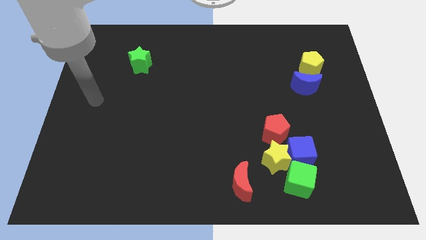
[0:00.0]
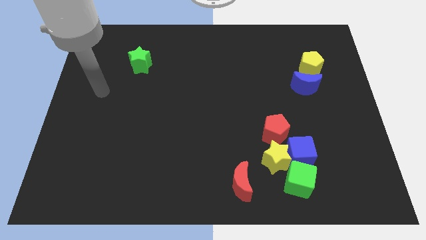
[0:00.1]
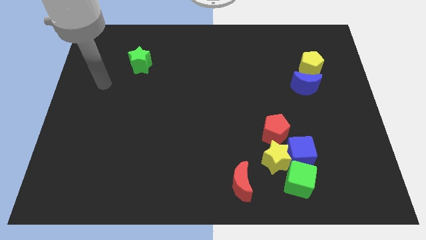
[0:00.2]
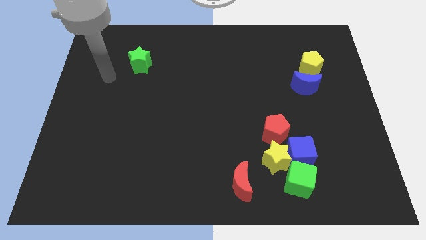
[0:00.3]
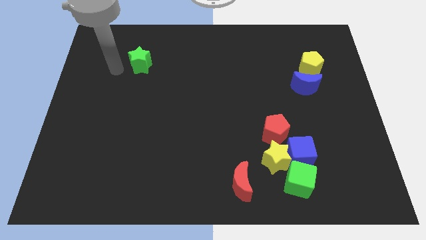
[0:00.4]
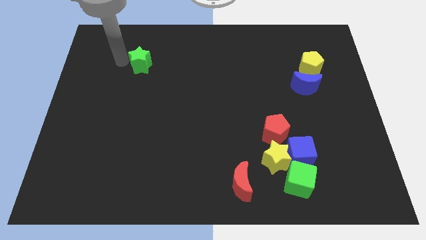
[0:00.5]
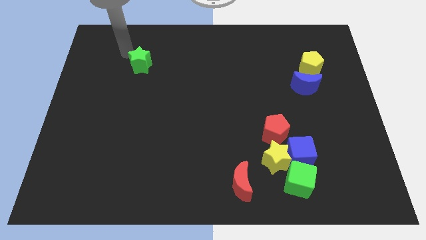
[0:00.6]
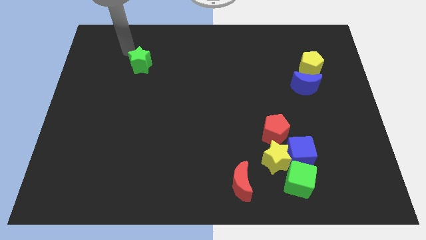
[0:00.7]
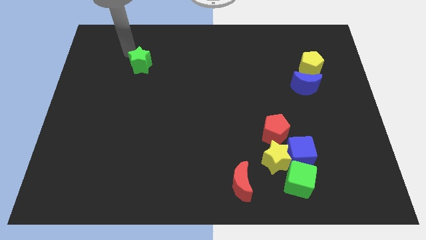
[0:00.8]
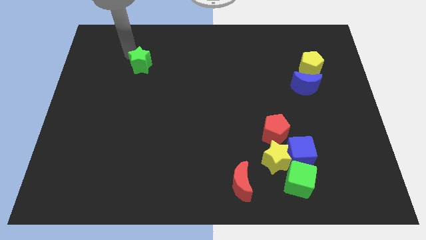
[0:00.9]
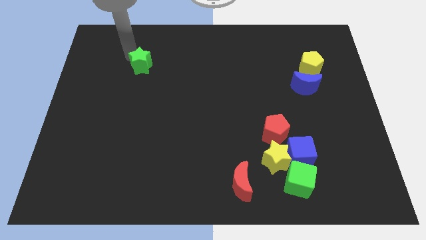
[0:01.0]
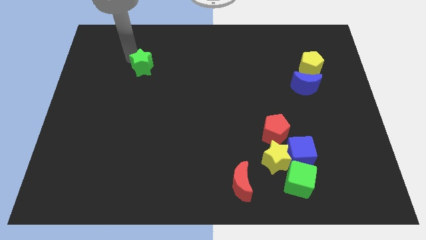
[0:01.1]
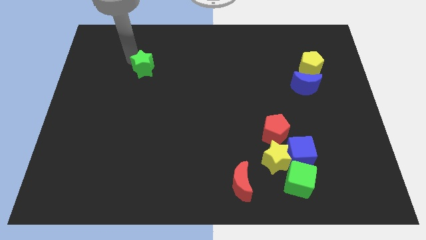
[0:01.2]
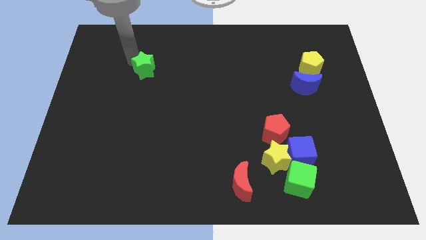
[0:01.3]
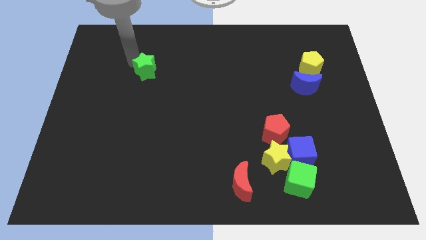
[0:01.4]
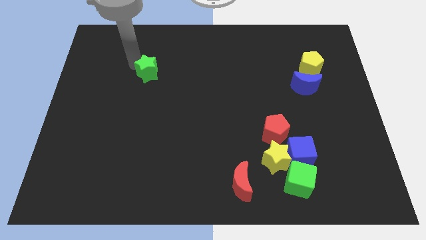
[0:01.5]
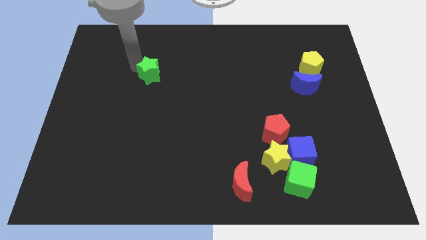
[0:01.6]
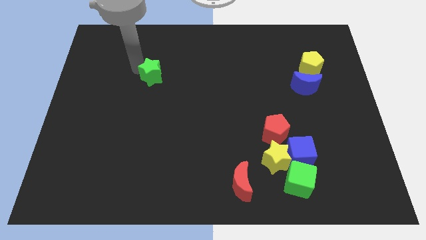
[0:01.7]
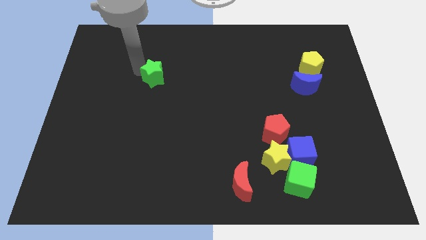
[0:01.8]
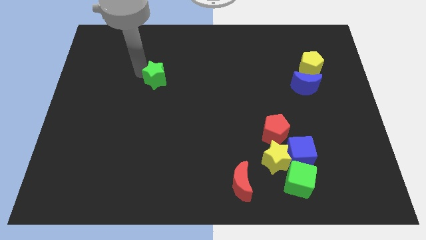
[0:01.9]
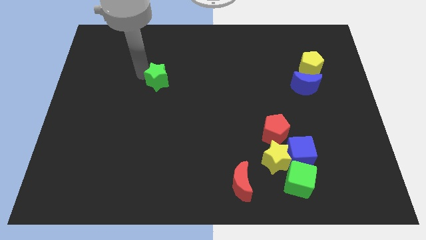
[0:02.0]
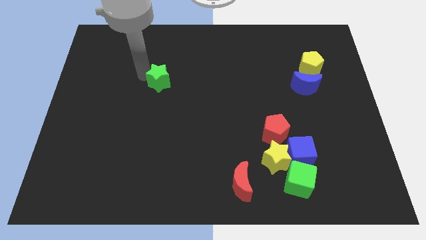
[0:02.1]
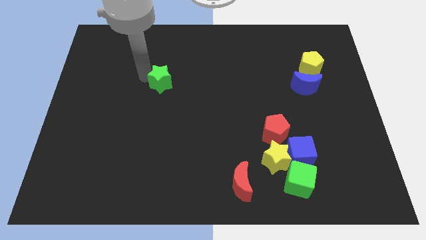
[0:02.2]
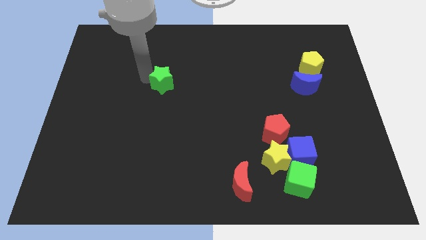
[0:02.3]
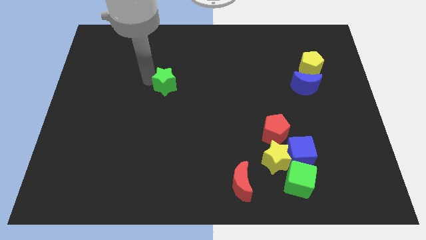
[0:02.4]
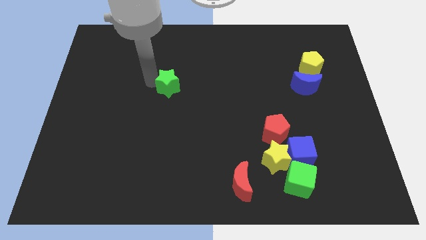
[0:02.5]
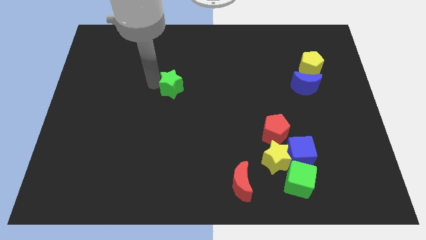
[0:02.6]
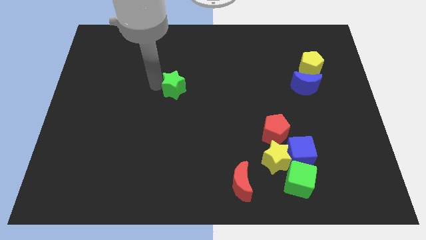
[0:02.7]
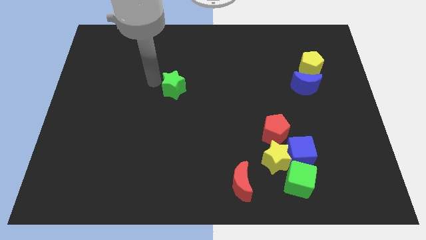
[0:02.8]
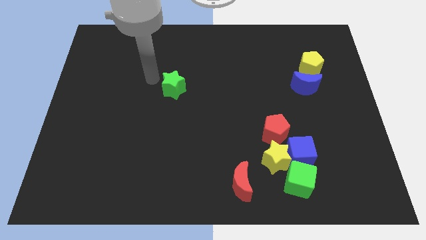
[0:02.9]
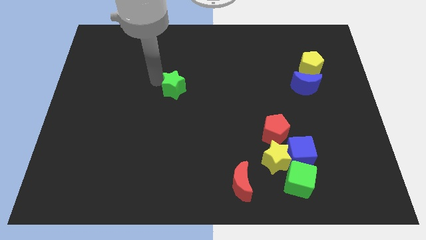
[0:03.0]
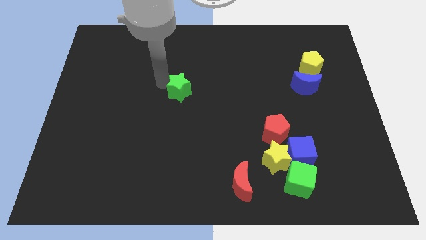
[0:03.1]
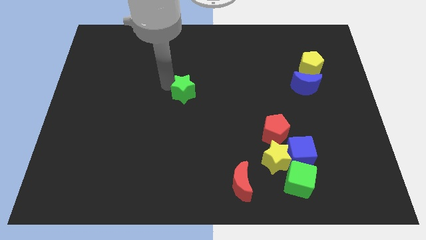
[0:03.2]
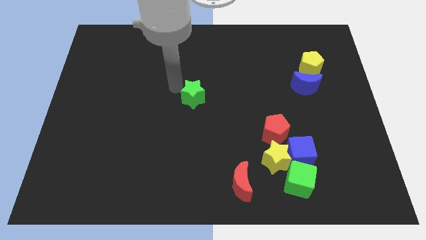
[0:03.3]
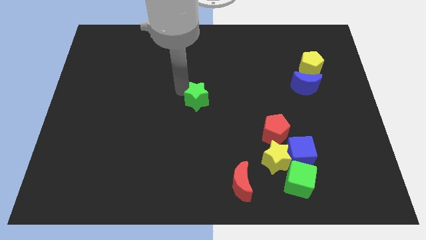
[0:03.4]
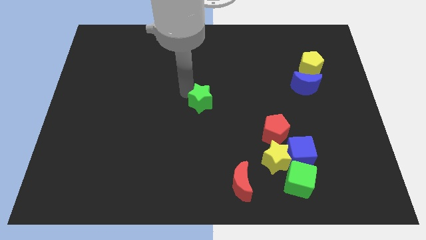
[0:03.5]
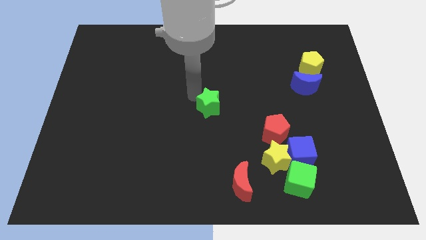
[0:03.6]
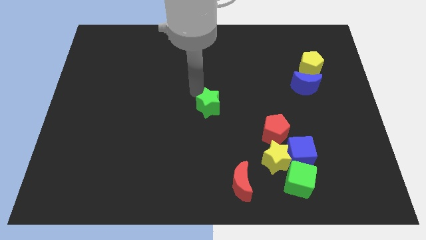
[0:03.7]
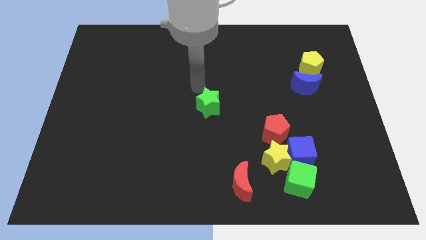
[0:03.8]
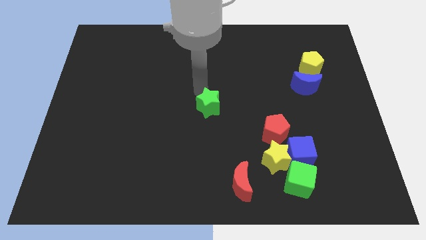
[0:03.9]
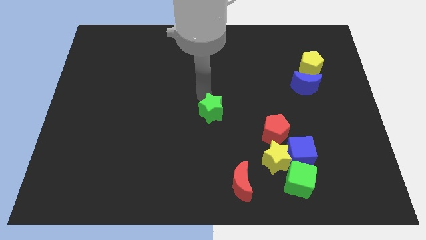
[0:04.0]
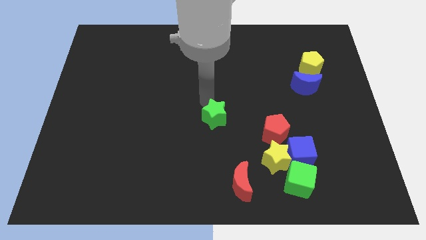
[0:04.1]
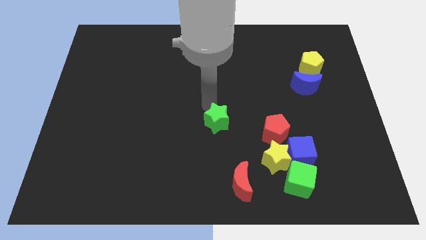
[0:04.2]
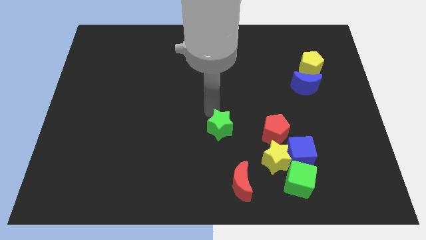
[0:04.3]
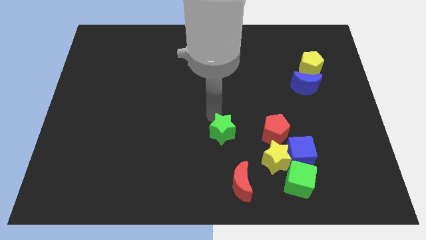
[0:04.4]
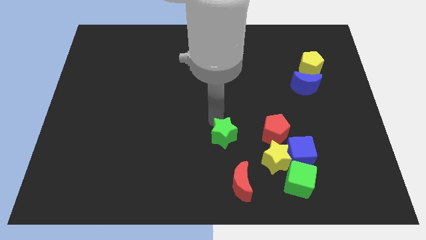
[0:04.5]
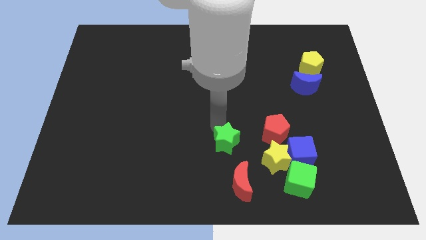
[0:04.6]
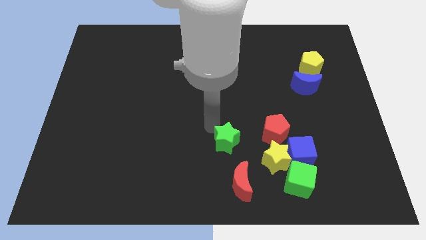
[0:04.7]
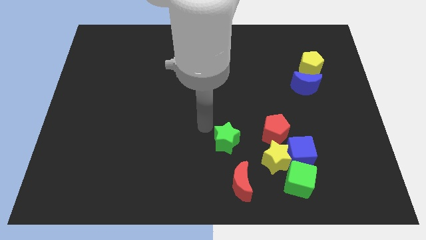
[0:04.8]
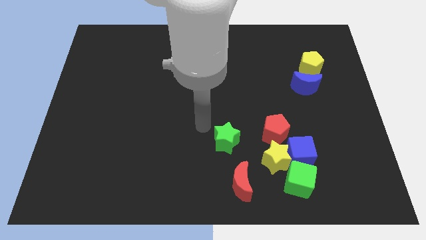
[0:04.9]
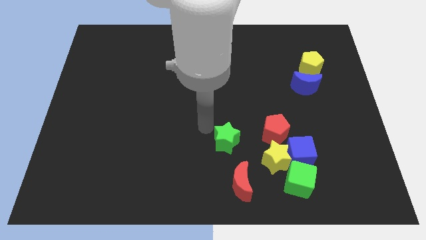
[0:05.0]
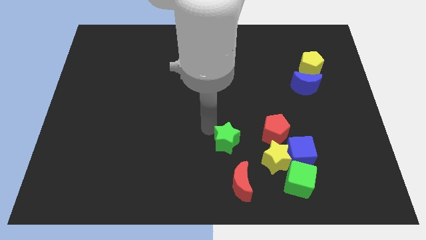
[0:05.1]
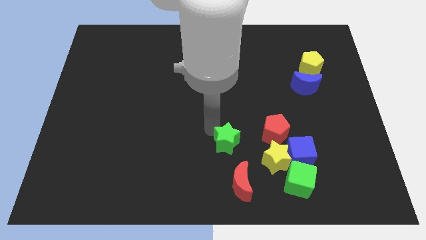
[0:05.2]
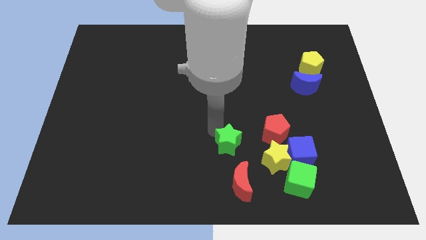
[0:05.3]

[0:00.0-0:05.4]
put the green star to the left side of the blue cube

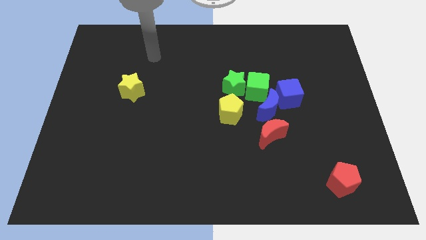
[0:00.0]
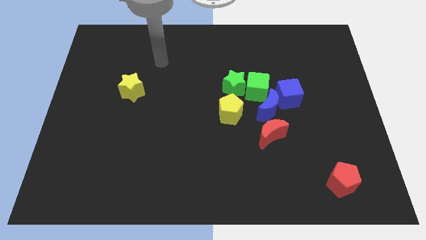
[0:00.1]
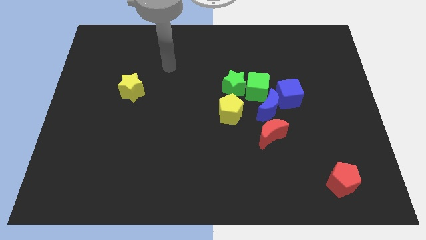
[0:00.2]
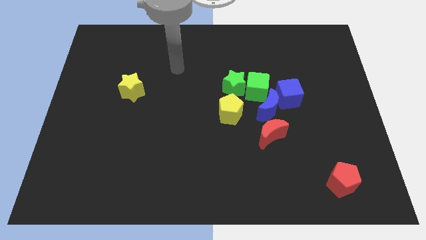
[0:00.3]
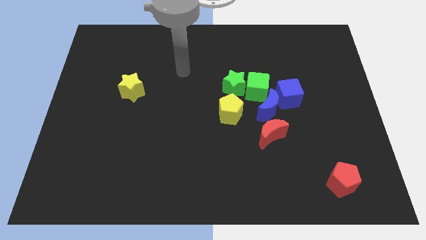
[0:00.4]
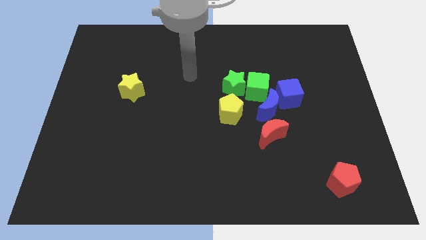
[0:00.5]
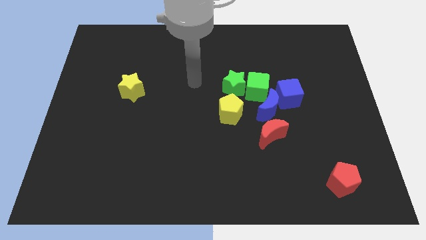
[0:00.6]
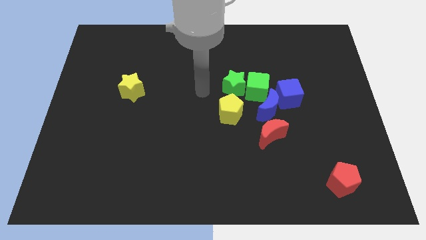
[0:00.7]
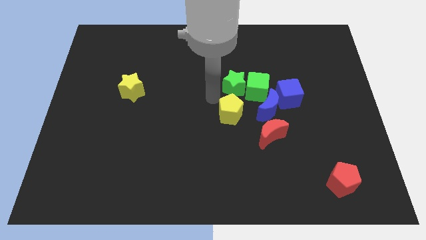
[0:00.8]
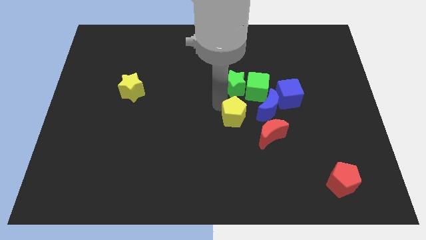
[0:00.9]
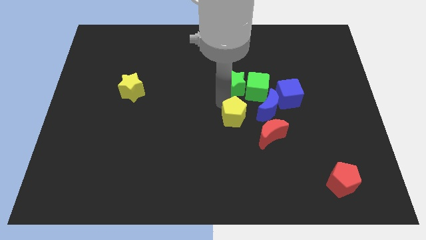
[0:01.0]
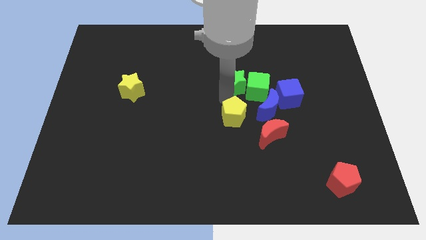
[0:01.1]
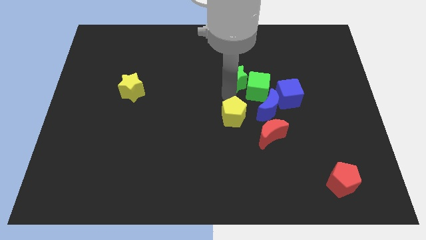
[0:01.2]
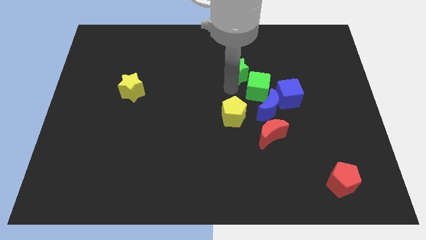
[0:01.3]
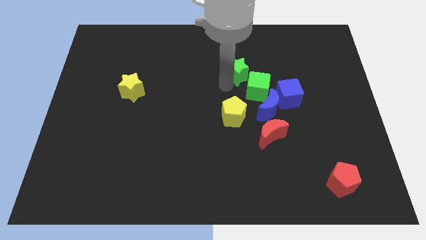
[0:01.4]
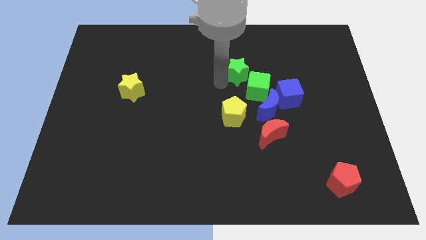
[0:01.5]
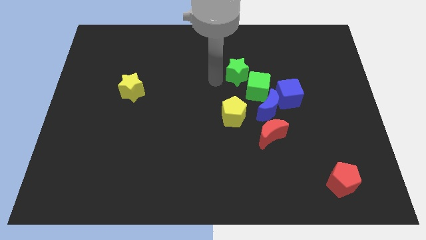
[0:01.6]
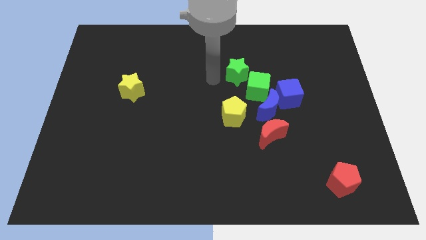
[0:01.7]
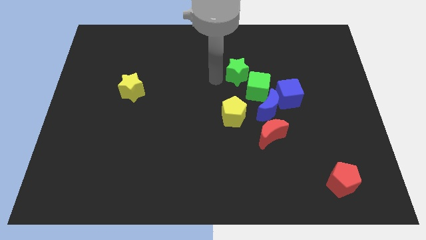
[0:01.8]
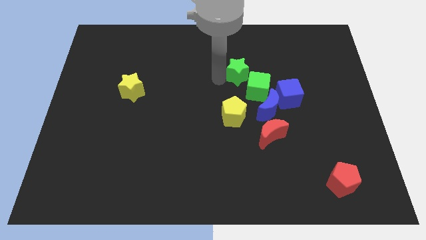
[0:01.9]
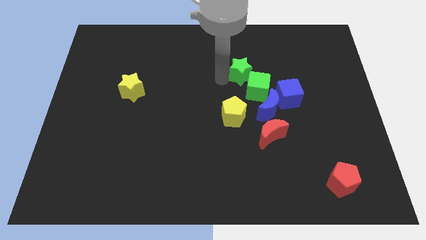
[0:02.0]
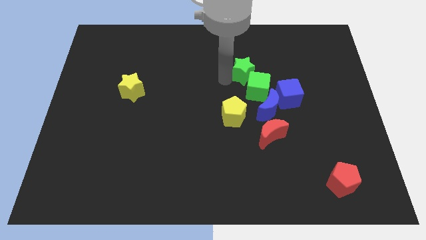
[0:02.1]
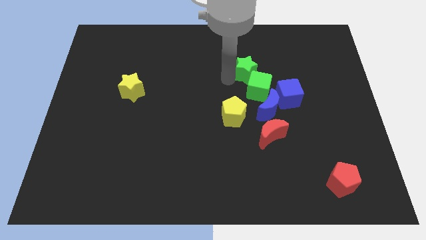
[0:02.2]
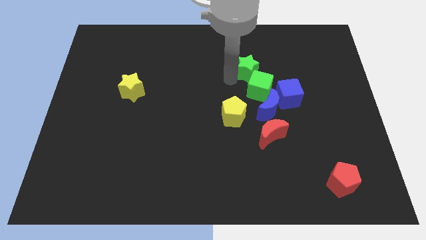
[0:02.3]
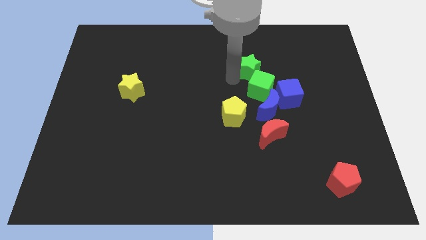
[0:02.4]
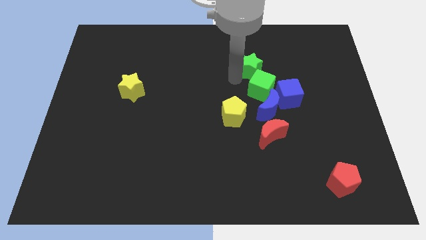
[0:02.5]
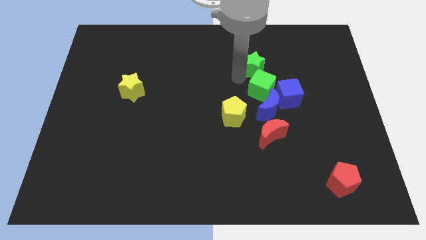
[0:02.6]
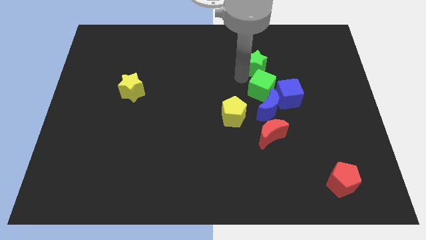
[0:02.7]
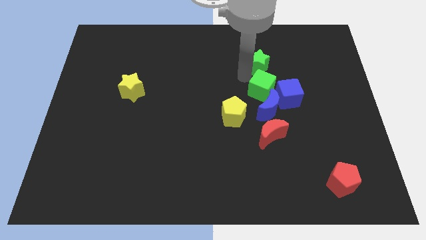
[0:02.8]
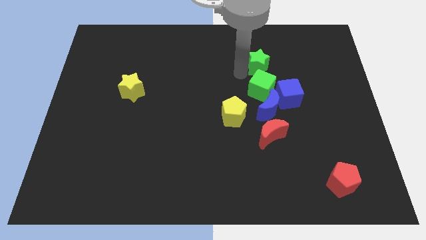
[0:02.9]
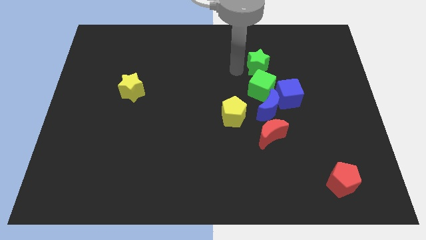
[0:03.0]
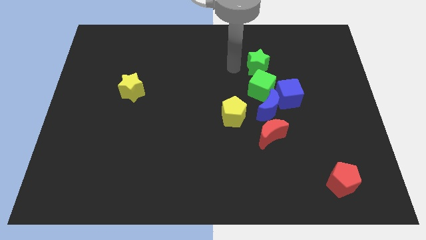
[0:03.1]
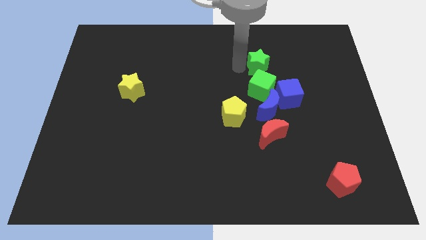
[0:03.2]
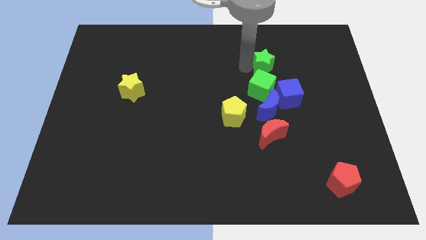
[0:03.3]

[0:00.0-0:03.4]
push the green star to the top of the blue cube
